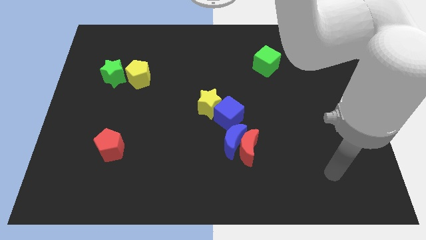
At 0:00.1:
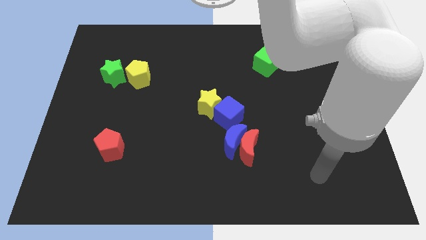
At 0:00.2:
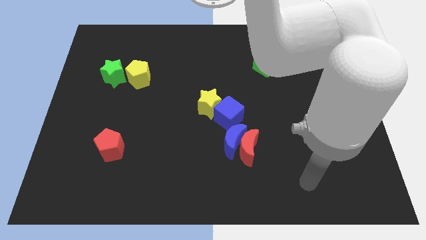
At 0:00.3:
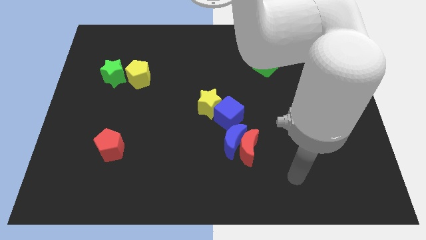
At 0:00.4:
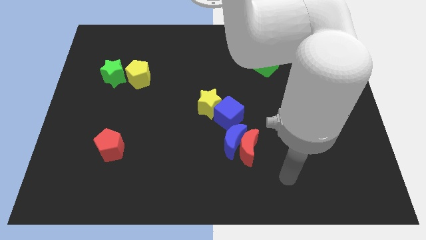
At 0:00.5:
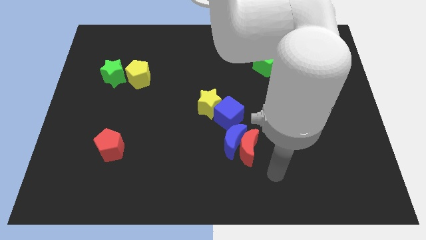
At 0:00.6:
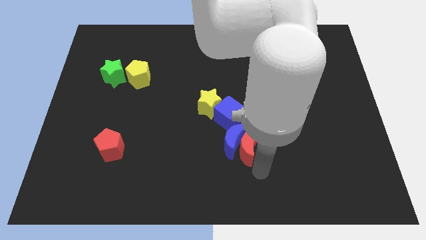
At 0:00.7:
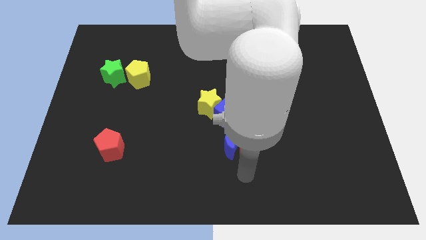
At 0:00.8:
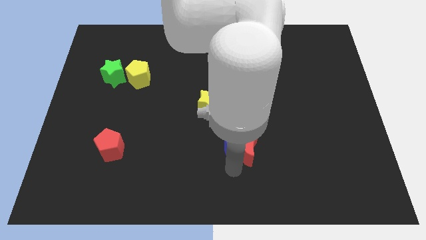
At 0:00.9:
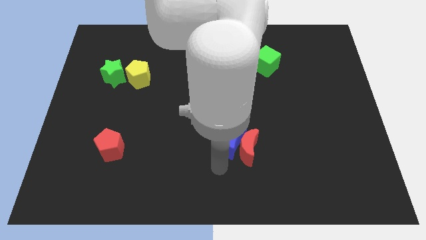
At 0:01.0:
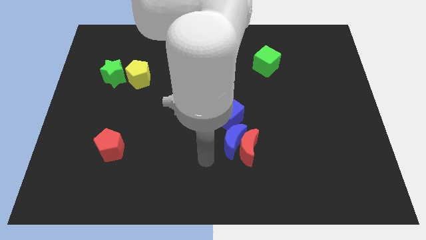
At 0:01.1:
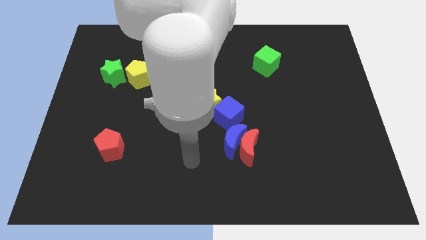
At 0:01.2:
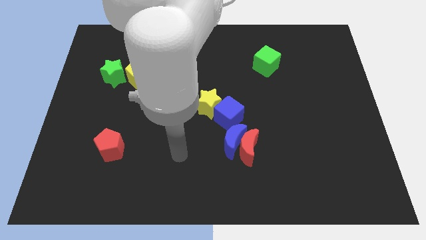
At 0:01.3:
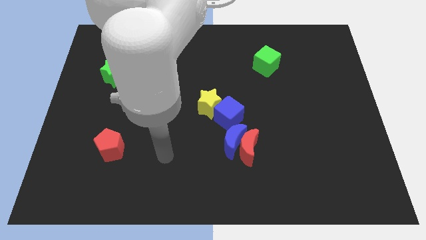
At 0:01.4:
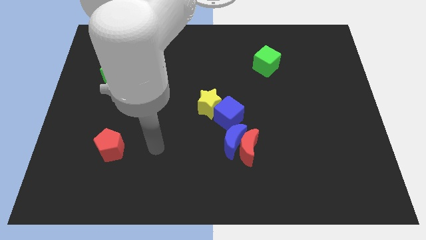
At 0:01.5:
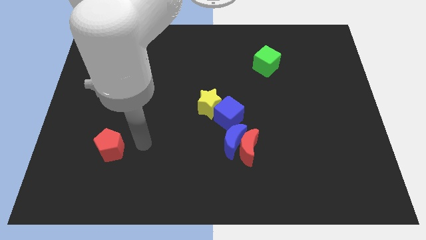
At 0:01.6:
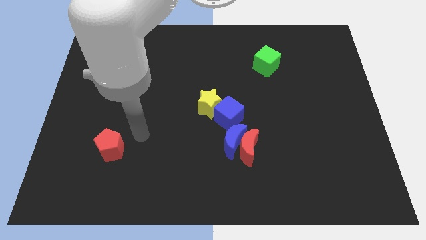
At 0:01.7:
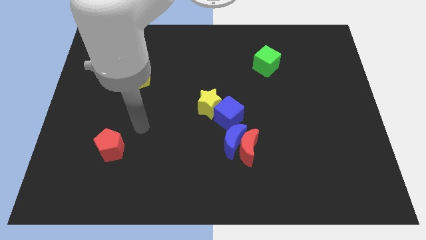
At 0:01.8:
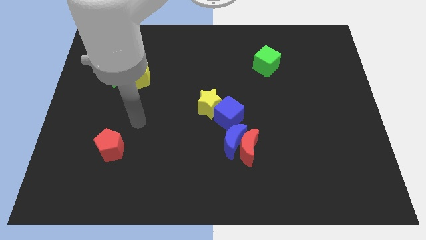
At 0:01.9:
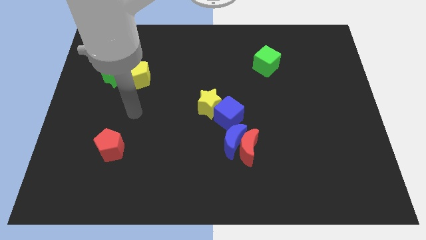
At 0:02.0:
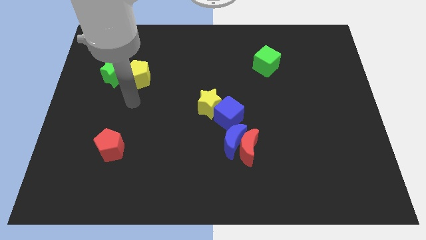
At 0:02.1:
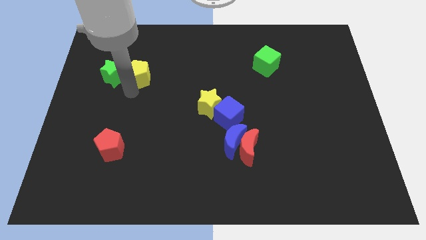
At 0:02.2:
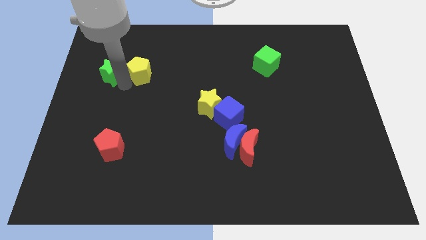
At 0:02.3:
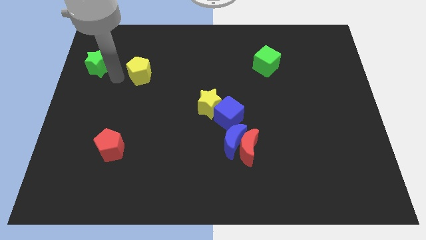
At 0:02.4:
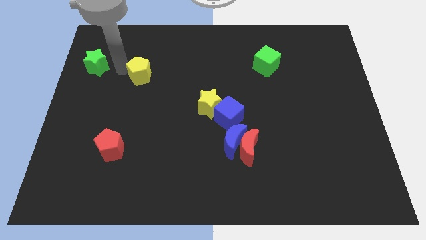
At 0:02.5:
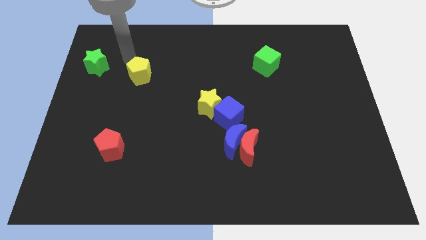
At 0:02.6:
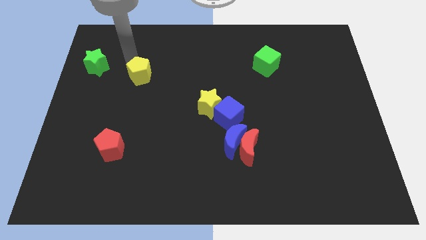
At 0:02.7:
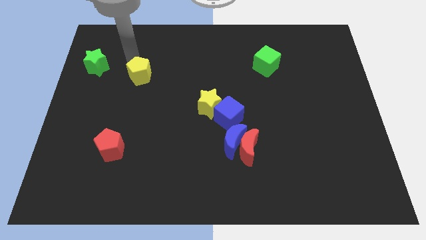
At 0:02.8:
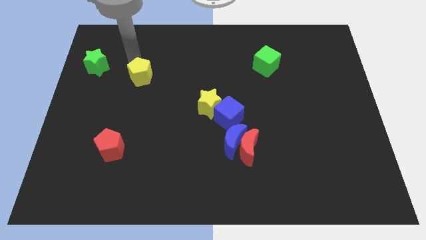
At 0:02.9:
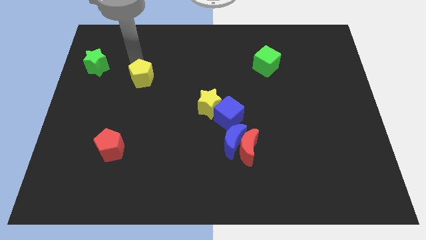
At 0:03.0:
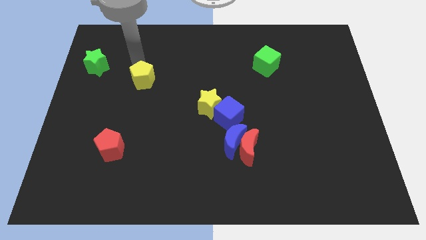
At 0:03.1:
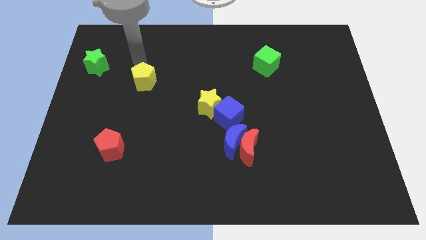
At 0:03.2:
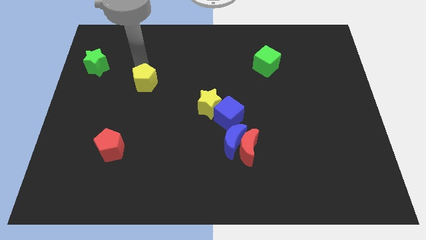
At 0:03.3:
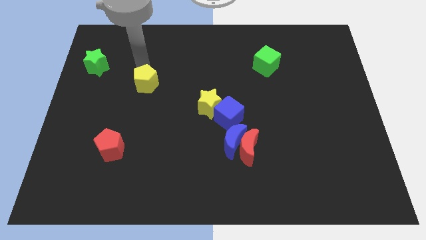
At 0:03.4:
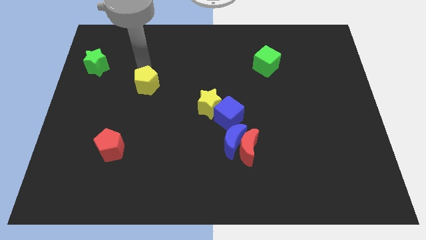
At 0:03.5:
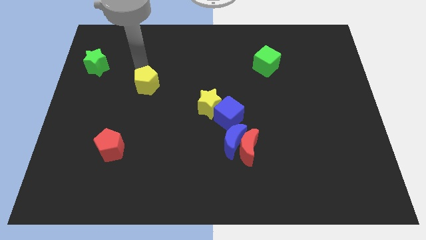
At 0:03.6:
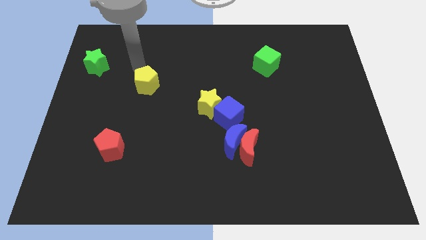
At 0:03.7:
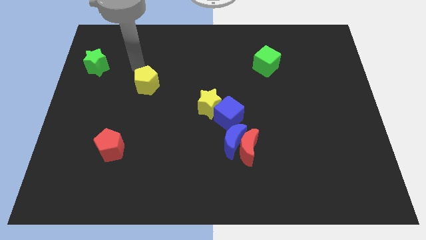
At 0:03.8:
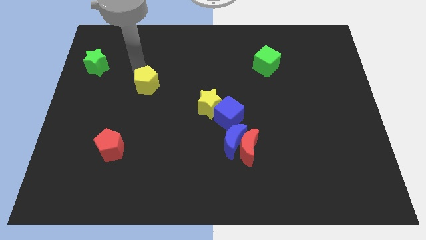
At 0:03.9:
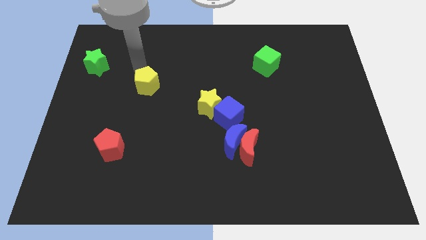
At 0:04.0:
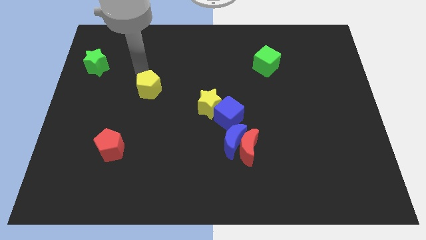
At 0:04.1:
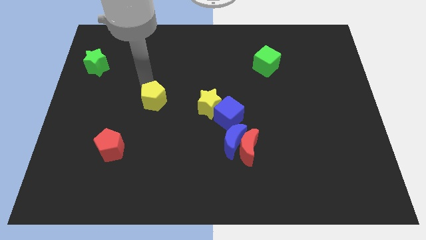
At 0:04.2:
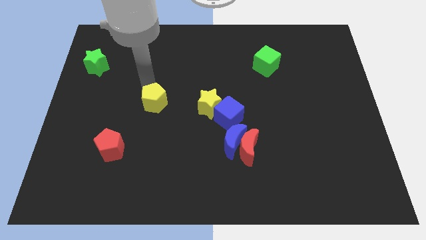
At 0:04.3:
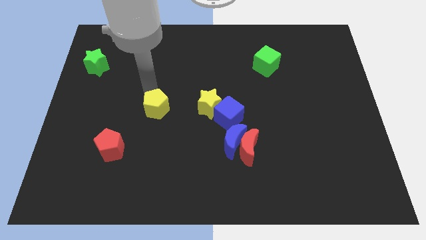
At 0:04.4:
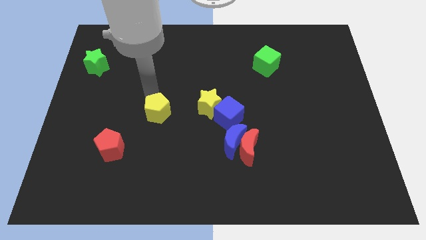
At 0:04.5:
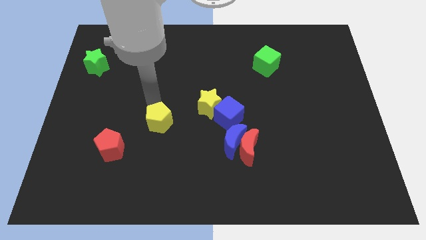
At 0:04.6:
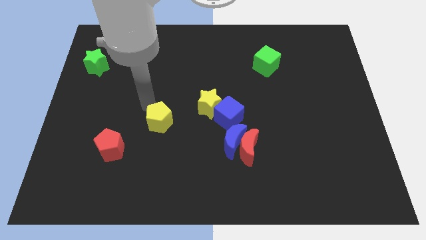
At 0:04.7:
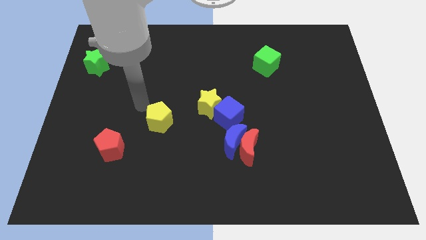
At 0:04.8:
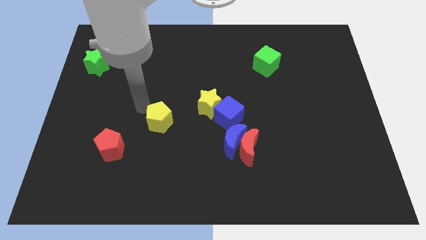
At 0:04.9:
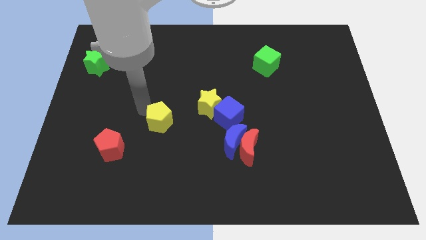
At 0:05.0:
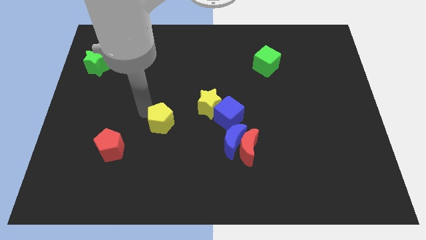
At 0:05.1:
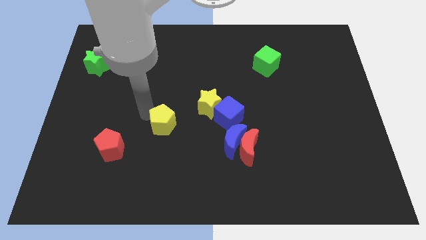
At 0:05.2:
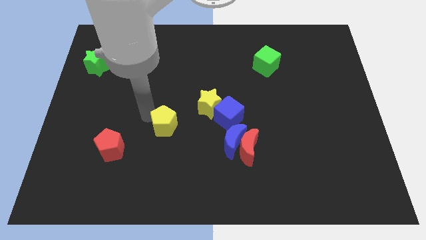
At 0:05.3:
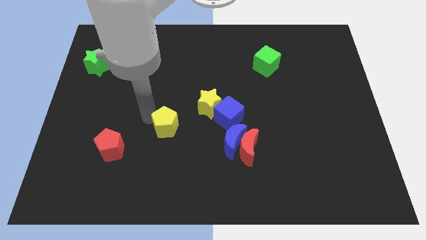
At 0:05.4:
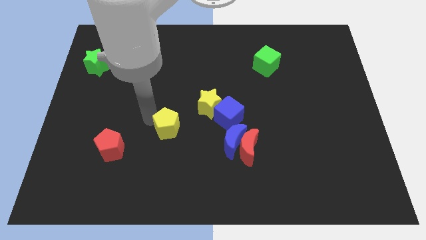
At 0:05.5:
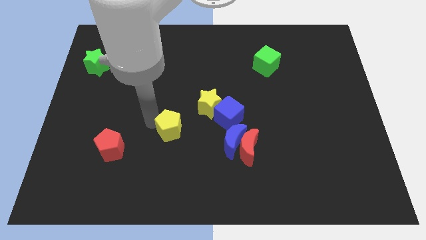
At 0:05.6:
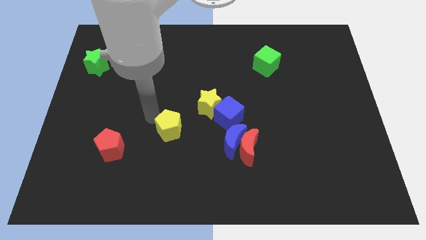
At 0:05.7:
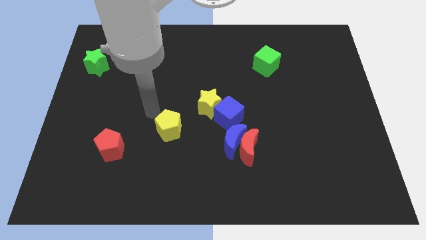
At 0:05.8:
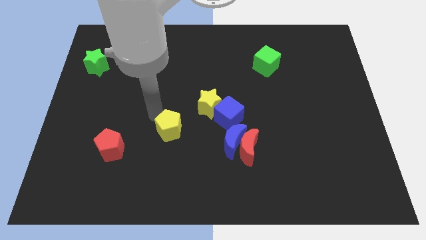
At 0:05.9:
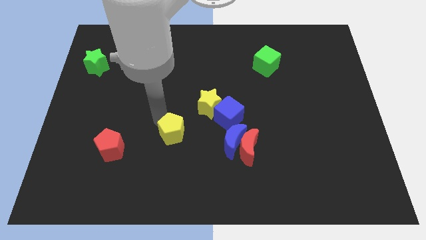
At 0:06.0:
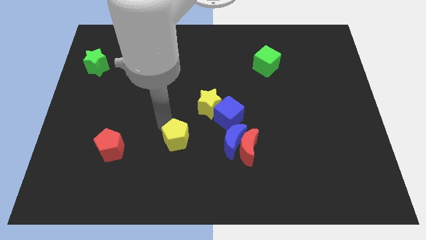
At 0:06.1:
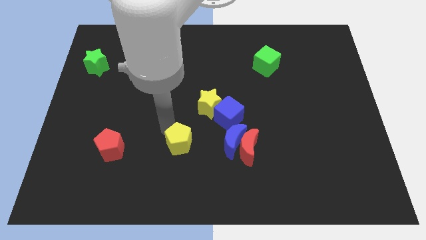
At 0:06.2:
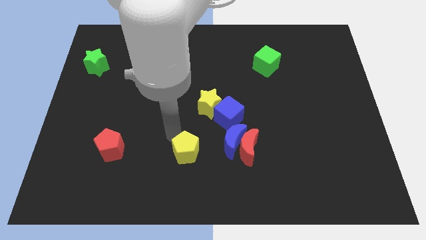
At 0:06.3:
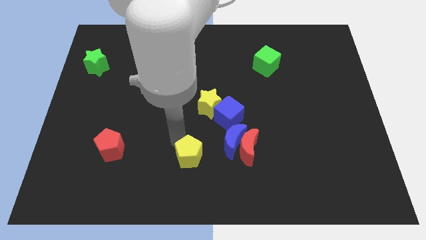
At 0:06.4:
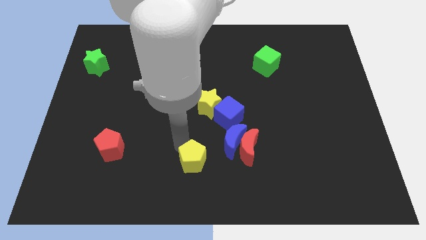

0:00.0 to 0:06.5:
move the yellow pentagon to the bottom

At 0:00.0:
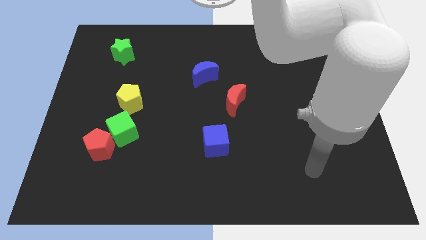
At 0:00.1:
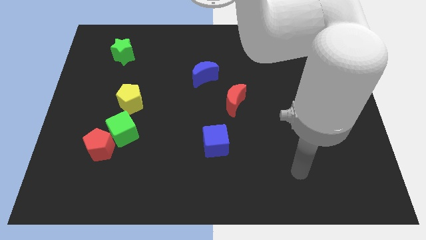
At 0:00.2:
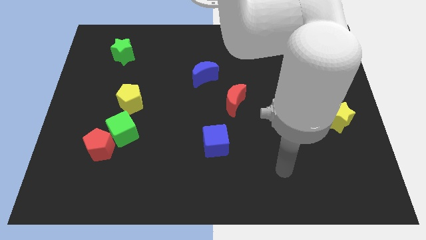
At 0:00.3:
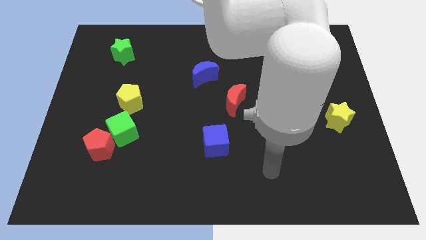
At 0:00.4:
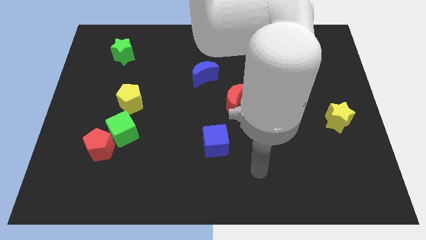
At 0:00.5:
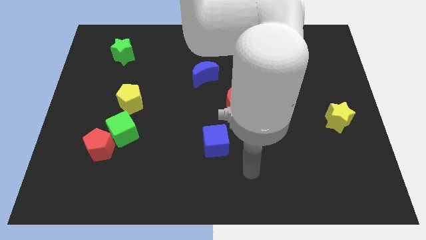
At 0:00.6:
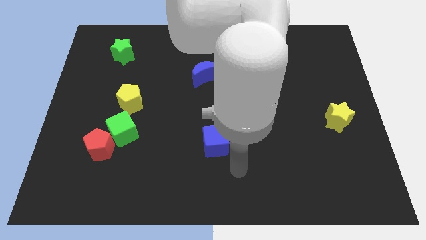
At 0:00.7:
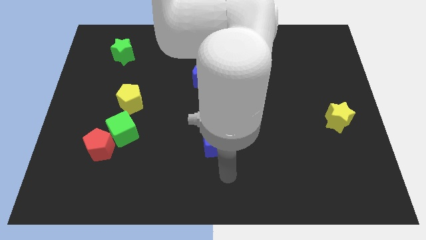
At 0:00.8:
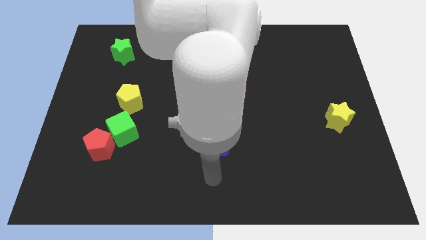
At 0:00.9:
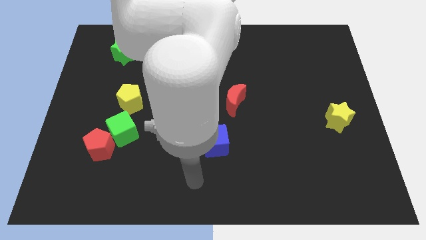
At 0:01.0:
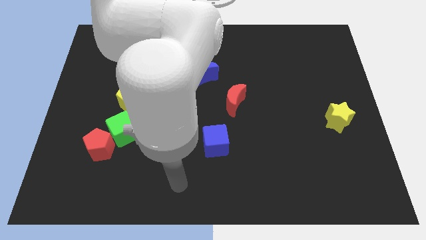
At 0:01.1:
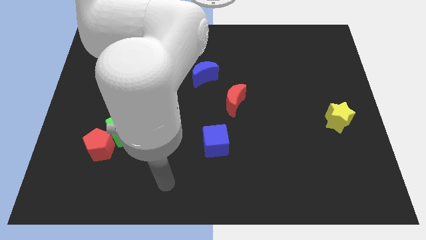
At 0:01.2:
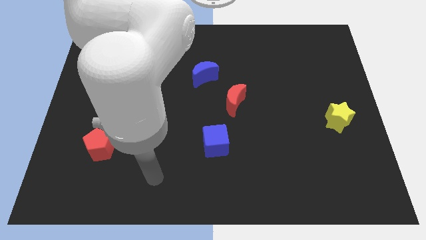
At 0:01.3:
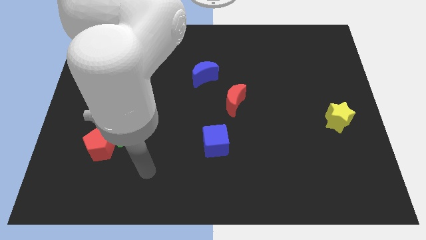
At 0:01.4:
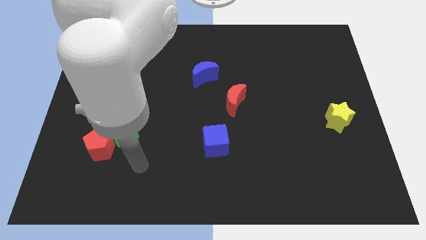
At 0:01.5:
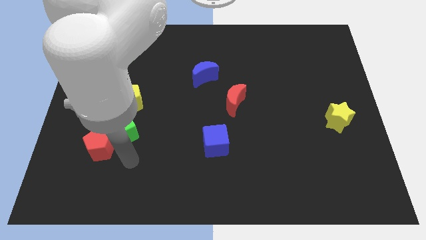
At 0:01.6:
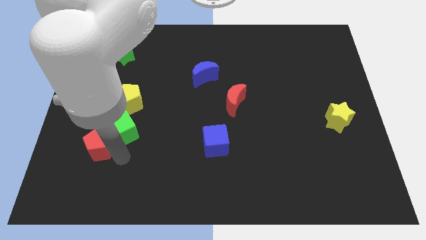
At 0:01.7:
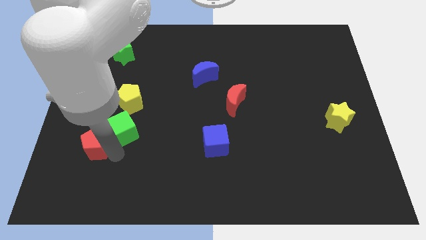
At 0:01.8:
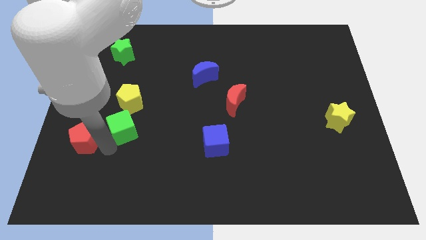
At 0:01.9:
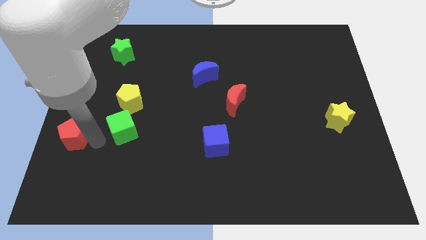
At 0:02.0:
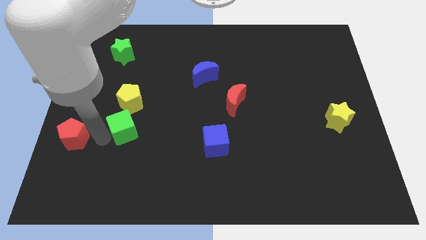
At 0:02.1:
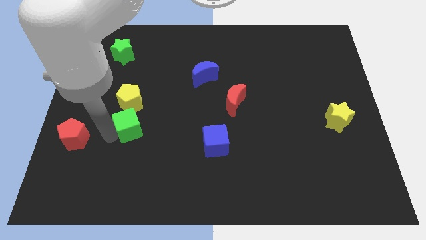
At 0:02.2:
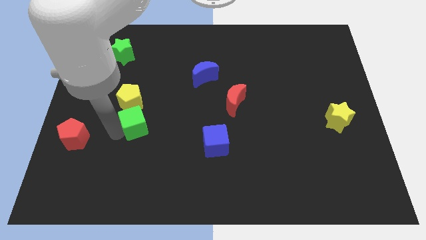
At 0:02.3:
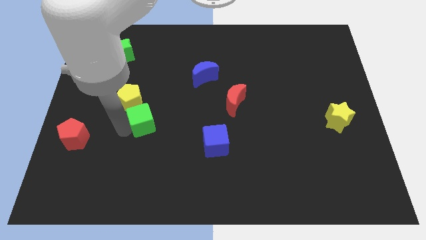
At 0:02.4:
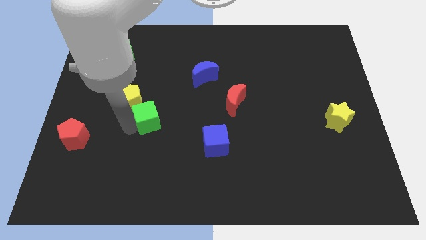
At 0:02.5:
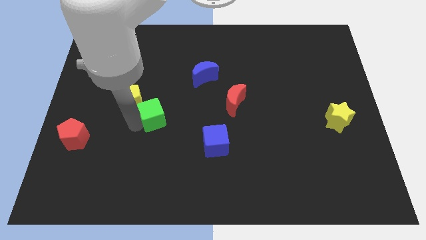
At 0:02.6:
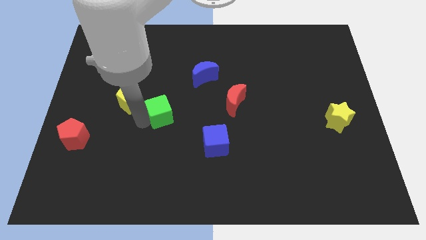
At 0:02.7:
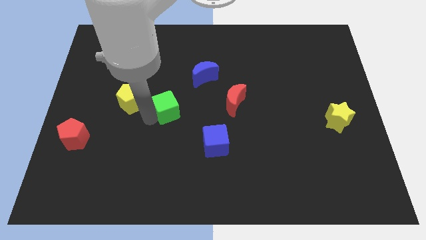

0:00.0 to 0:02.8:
push the green cube to the center
